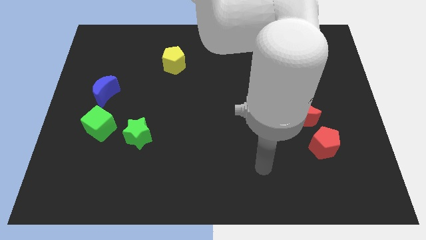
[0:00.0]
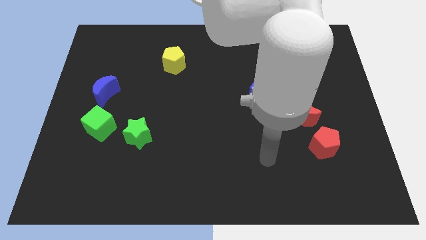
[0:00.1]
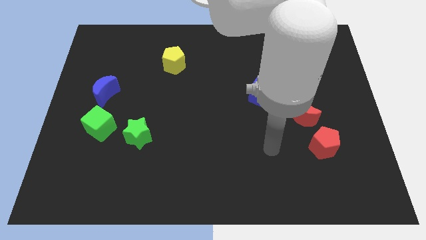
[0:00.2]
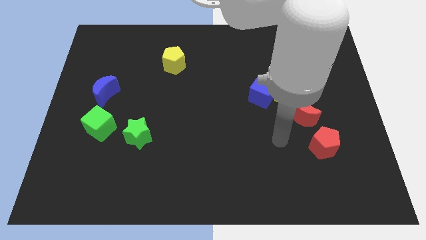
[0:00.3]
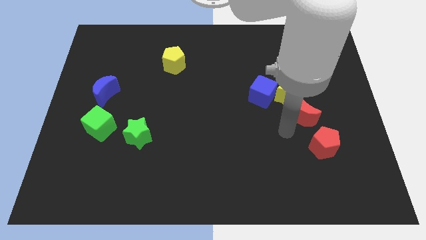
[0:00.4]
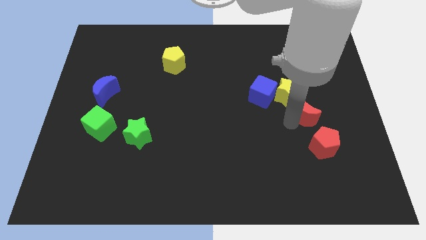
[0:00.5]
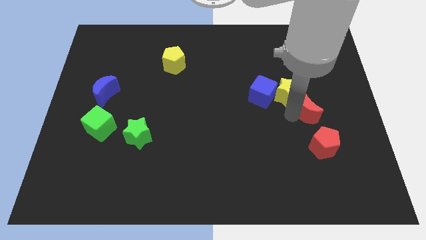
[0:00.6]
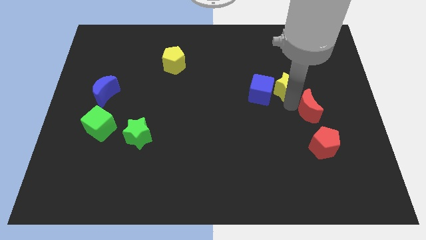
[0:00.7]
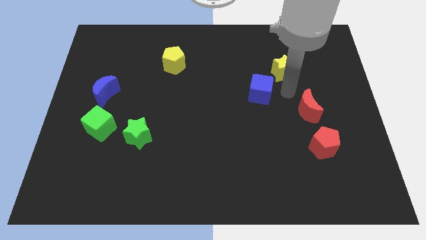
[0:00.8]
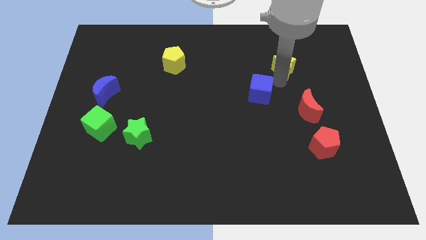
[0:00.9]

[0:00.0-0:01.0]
move the blue cube away from the yellow star

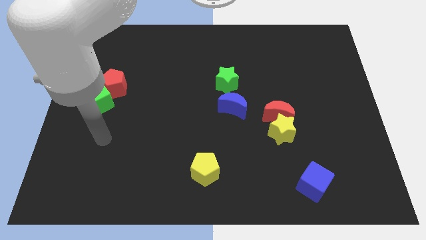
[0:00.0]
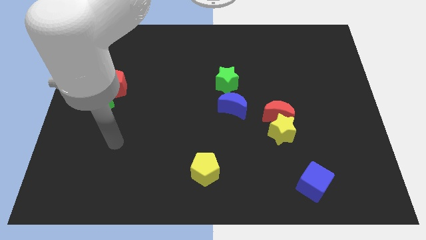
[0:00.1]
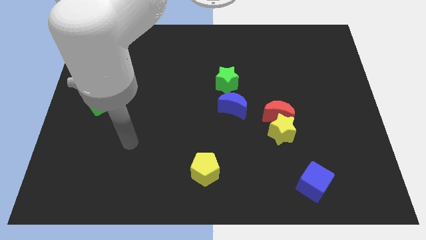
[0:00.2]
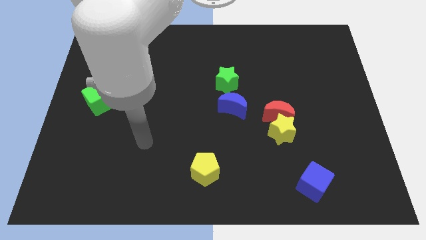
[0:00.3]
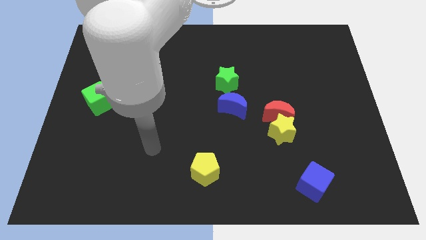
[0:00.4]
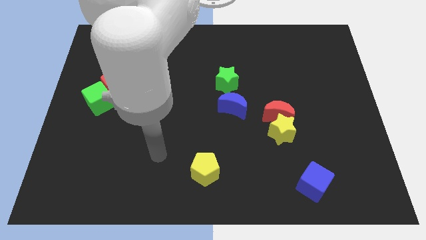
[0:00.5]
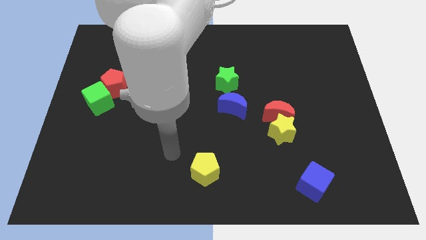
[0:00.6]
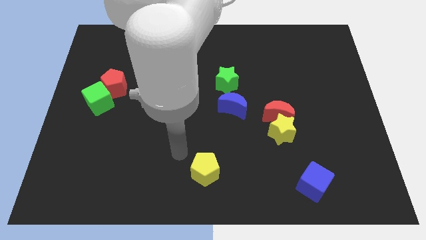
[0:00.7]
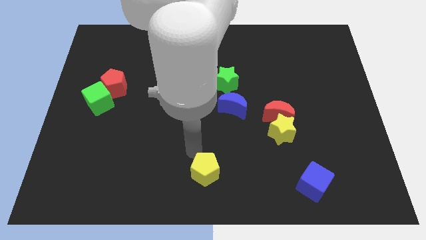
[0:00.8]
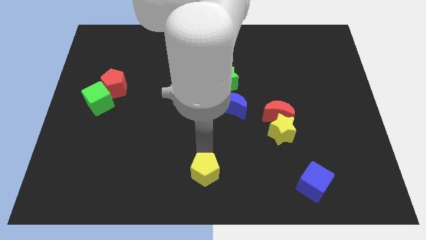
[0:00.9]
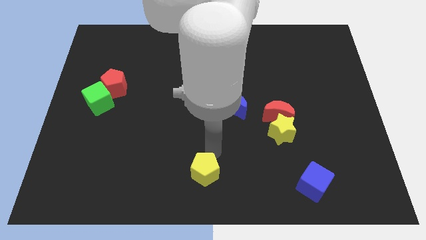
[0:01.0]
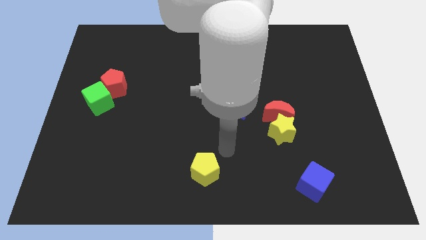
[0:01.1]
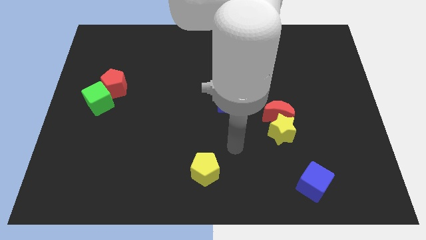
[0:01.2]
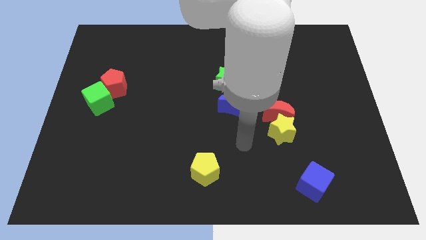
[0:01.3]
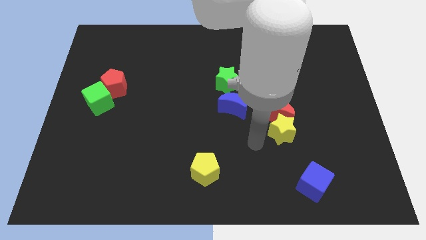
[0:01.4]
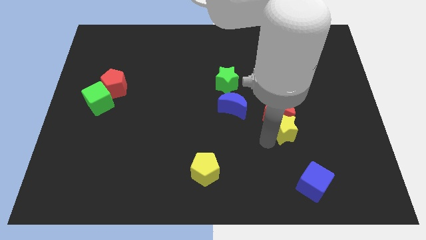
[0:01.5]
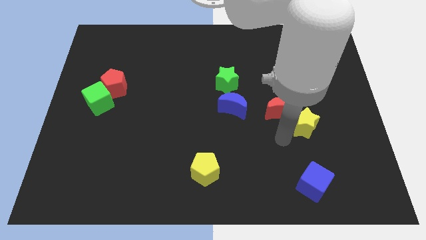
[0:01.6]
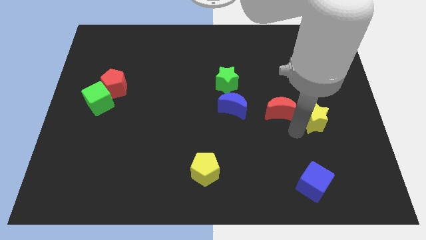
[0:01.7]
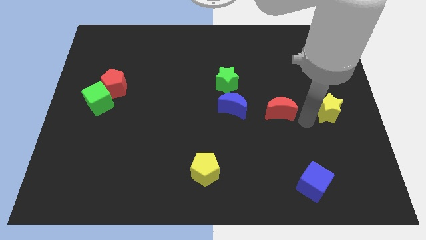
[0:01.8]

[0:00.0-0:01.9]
pull the red moon apart from the yellow star

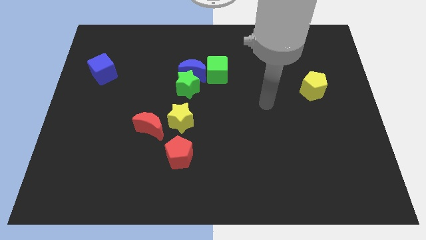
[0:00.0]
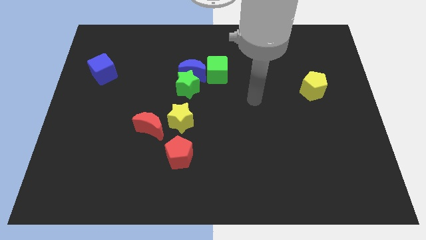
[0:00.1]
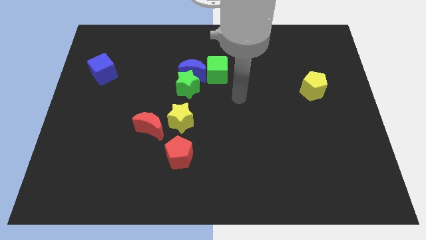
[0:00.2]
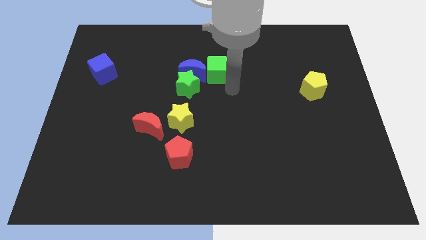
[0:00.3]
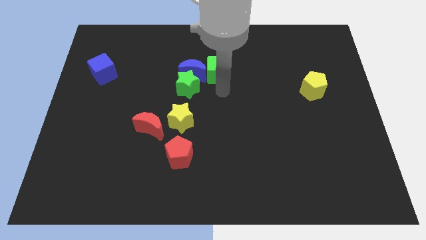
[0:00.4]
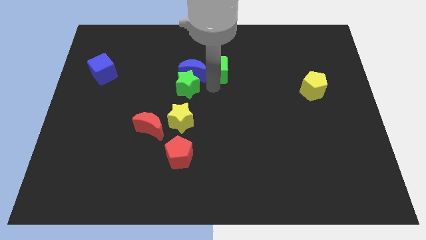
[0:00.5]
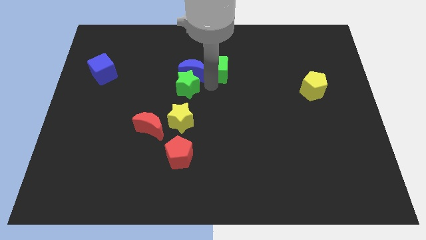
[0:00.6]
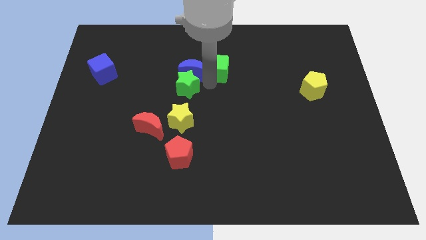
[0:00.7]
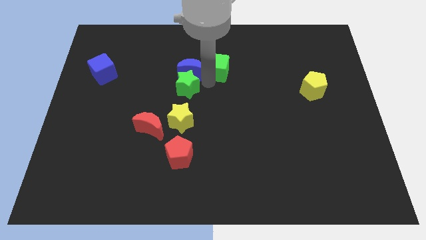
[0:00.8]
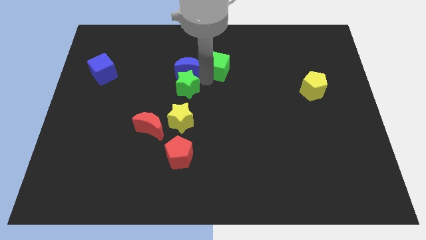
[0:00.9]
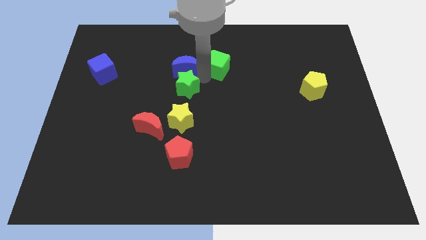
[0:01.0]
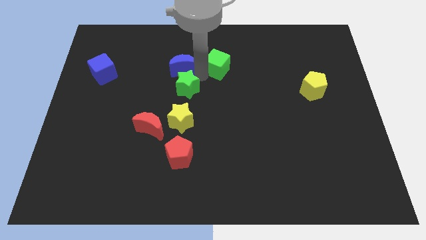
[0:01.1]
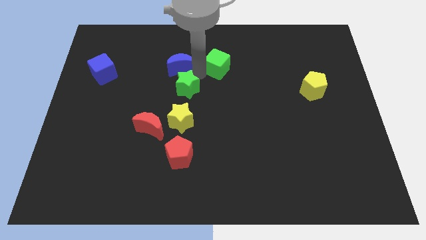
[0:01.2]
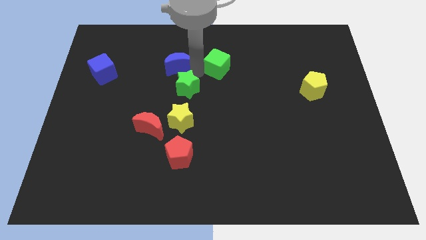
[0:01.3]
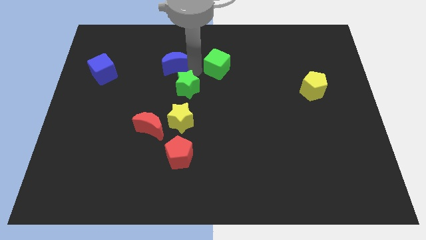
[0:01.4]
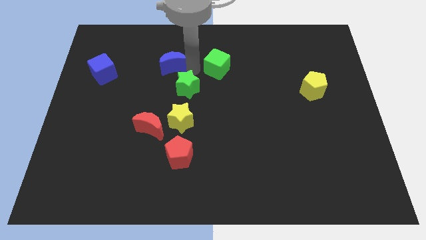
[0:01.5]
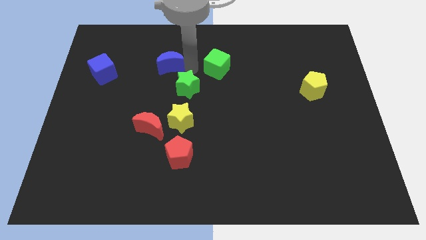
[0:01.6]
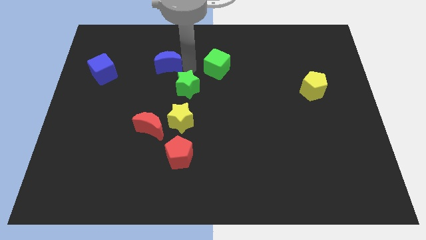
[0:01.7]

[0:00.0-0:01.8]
pull the blue moon apart from the green star and green cube

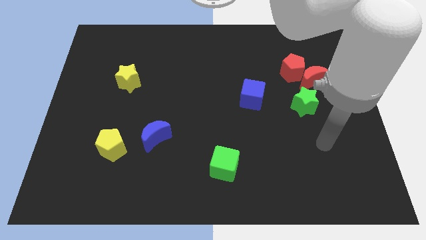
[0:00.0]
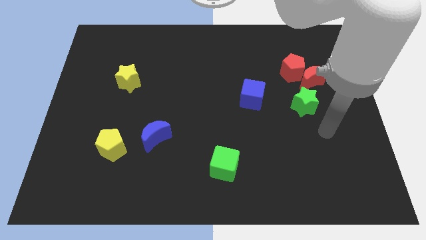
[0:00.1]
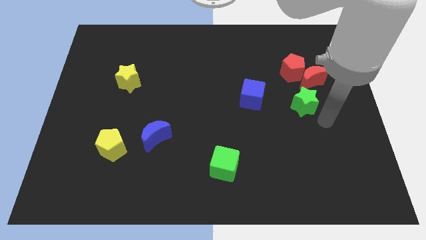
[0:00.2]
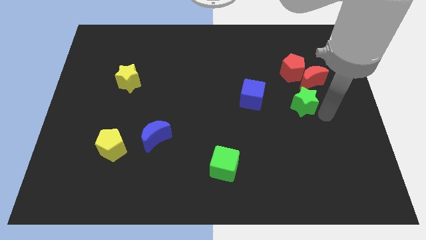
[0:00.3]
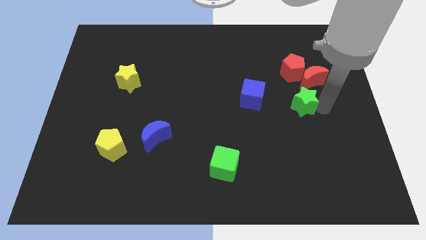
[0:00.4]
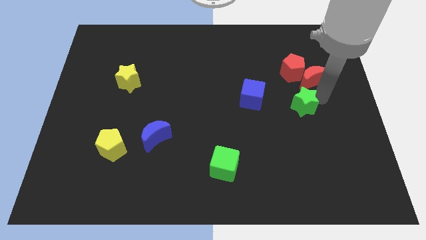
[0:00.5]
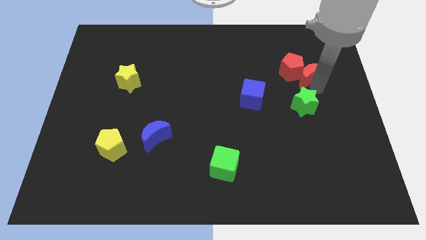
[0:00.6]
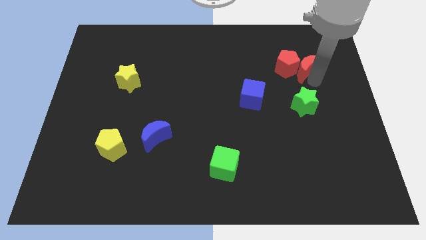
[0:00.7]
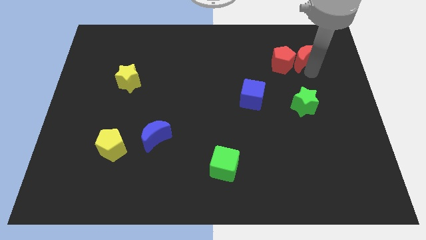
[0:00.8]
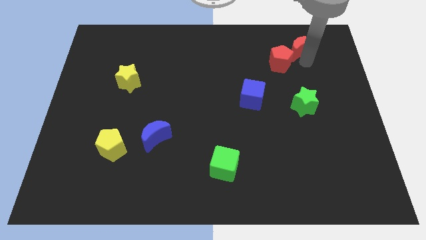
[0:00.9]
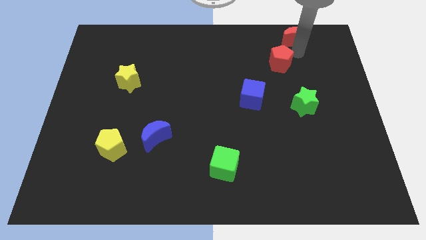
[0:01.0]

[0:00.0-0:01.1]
pull the red pentagon apart from the red moon

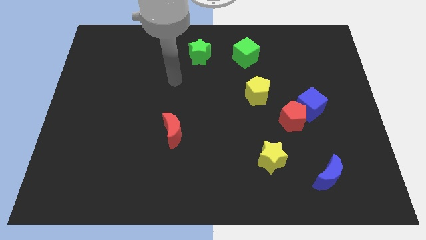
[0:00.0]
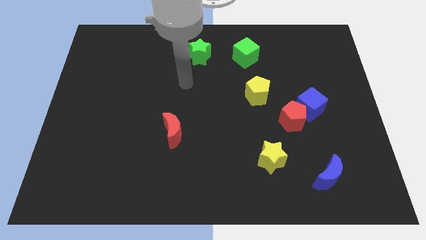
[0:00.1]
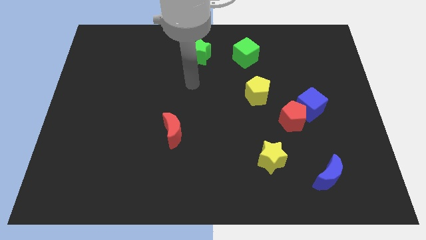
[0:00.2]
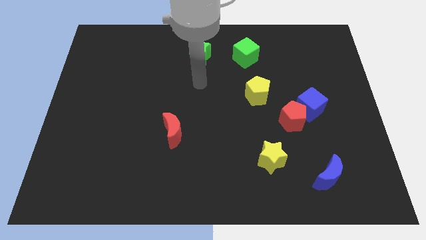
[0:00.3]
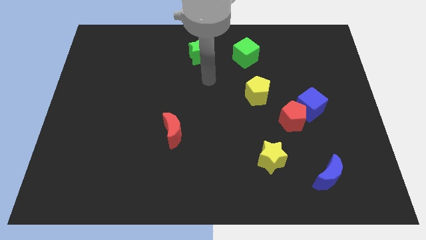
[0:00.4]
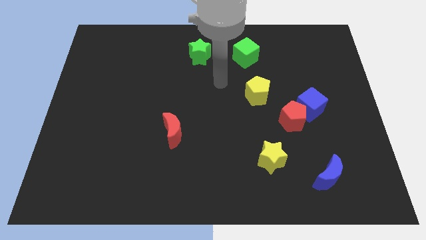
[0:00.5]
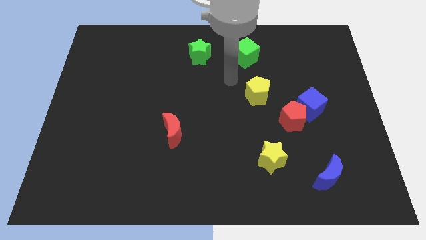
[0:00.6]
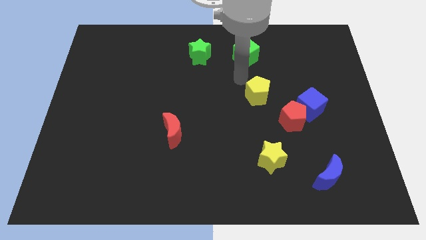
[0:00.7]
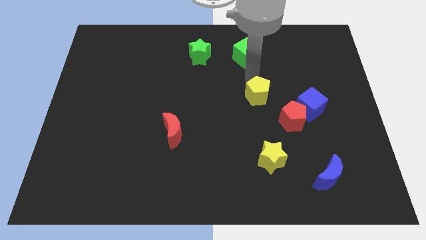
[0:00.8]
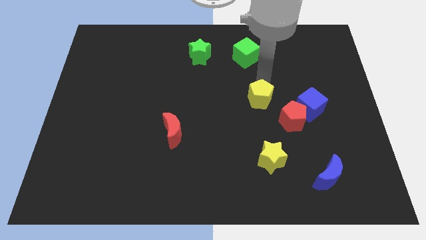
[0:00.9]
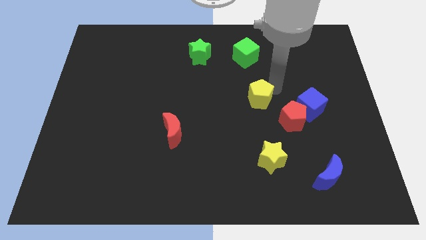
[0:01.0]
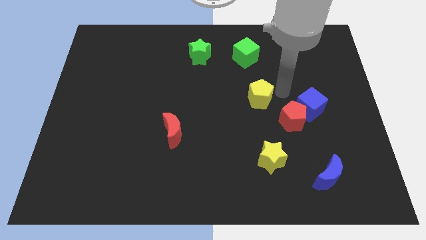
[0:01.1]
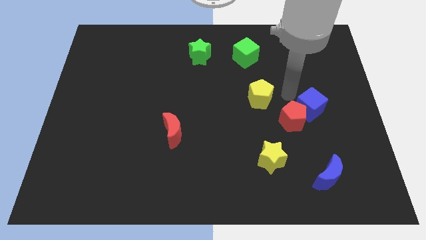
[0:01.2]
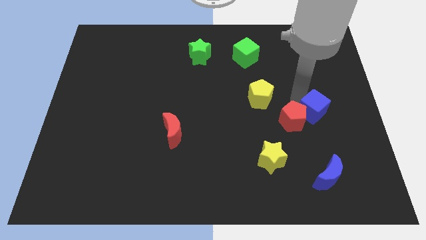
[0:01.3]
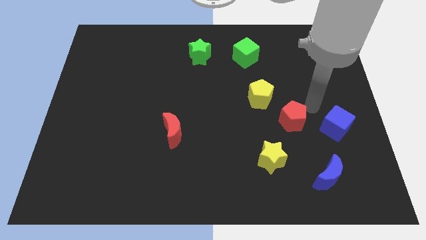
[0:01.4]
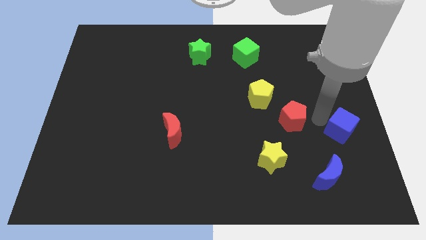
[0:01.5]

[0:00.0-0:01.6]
separate the red pentagon from the blue cube

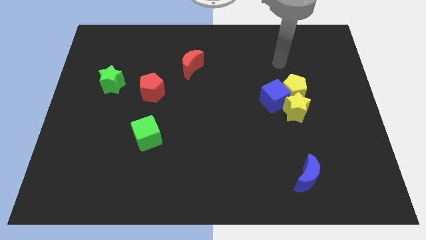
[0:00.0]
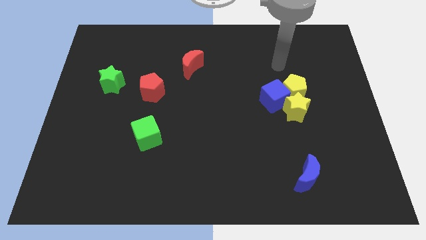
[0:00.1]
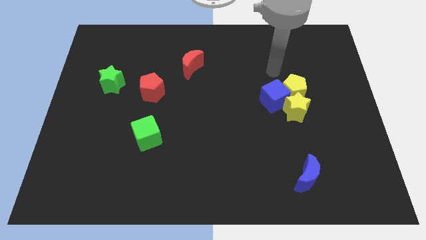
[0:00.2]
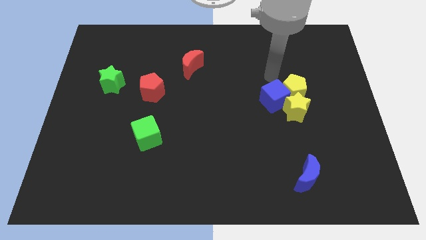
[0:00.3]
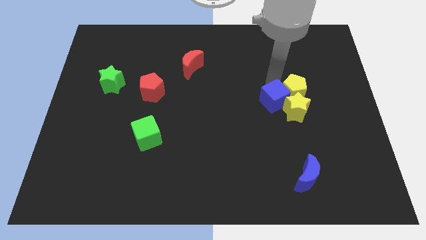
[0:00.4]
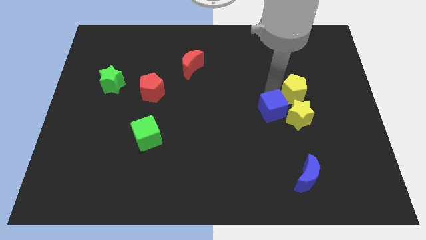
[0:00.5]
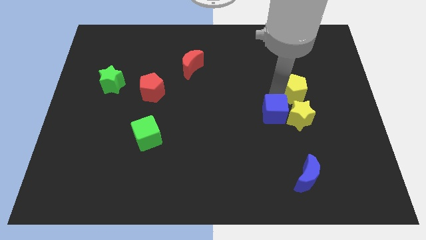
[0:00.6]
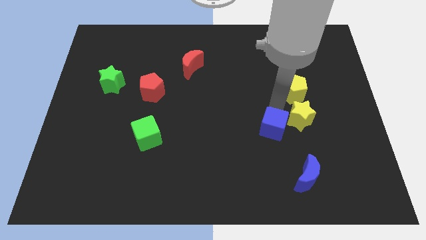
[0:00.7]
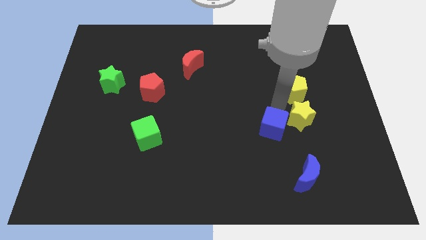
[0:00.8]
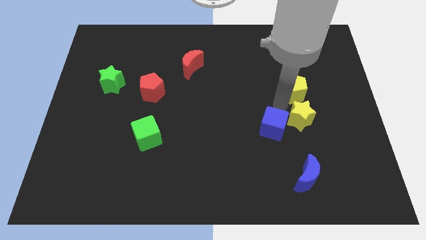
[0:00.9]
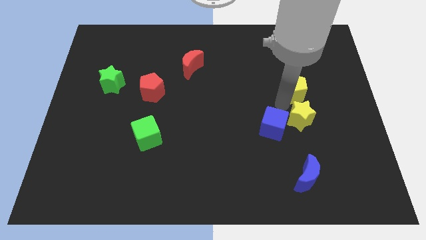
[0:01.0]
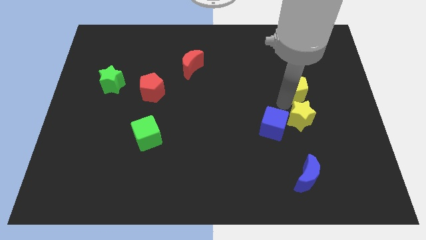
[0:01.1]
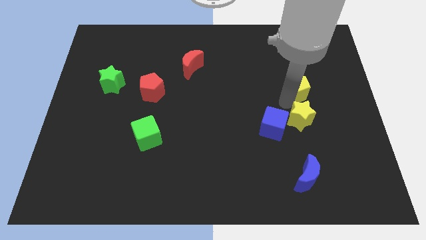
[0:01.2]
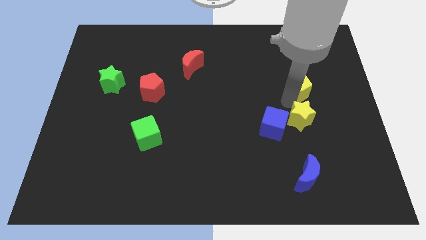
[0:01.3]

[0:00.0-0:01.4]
pull the yellow pentagon apart from the blue cube and yellow star

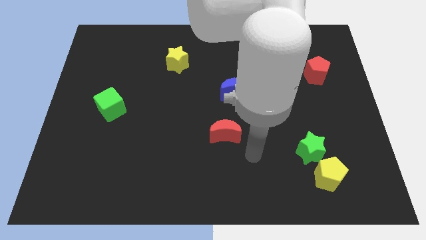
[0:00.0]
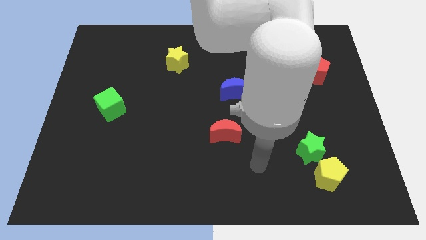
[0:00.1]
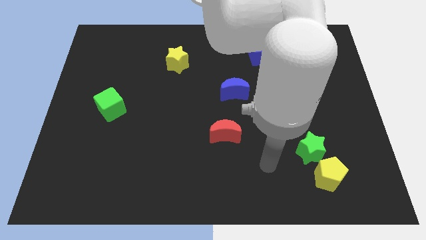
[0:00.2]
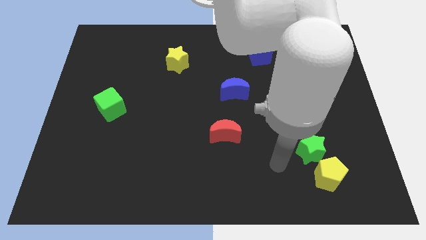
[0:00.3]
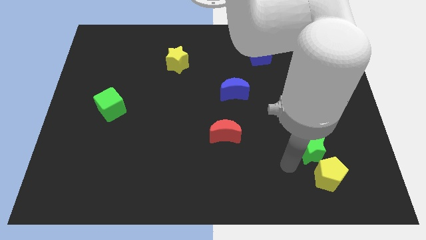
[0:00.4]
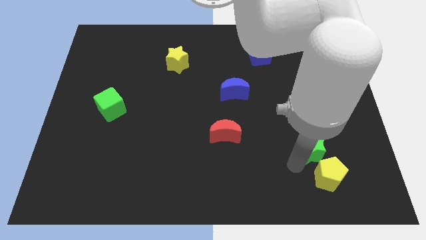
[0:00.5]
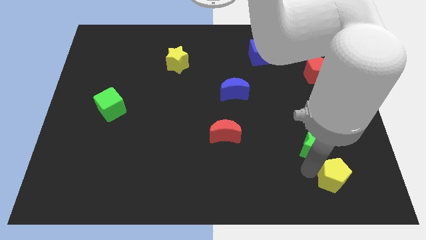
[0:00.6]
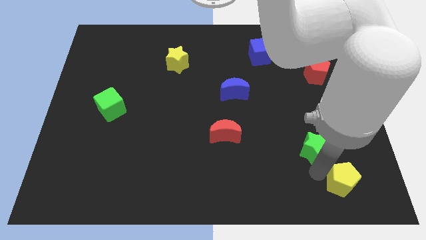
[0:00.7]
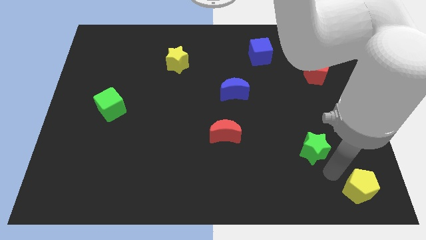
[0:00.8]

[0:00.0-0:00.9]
separate the green star from the yellow pentagon
